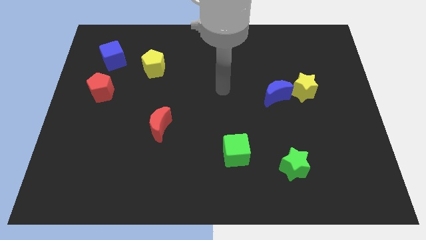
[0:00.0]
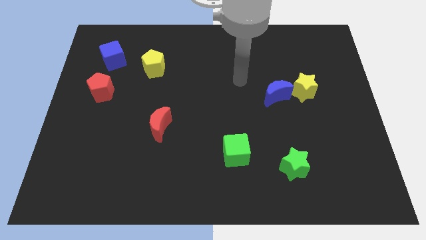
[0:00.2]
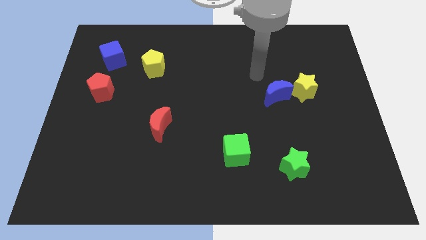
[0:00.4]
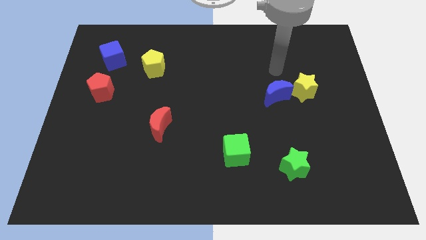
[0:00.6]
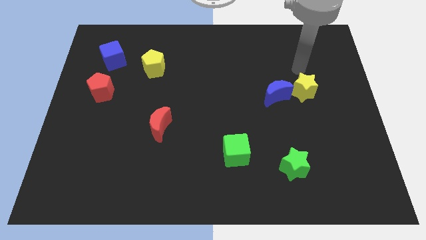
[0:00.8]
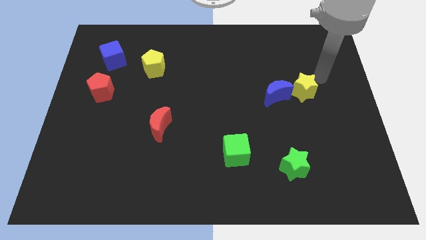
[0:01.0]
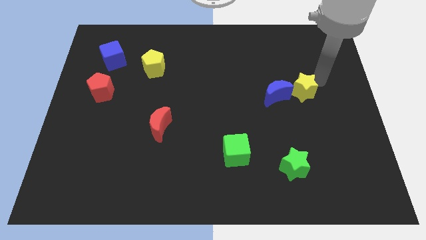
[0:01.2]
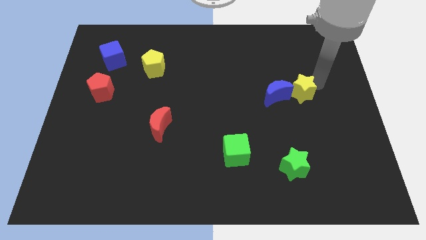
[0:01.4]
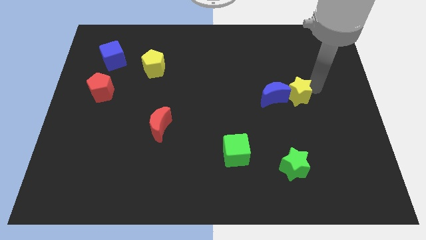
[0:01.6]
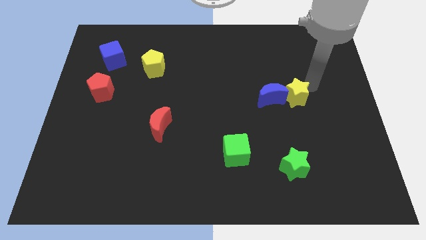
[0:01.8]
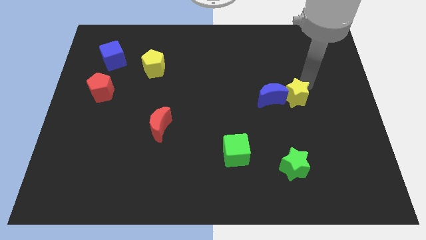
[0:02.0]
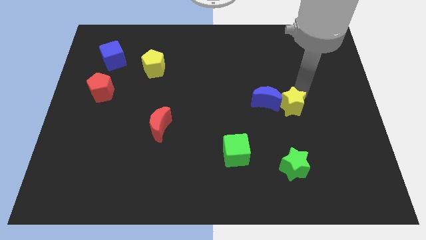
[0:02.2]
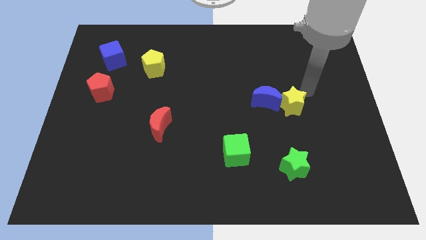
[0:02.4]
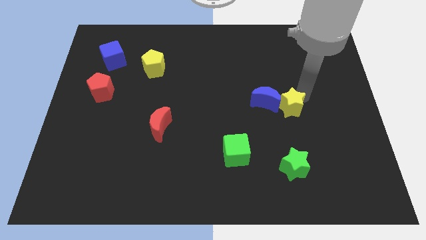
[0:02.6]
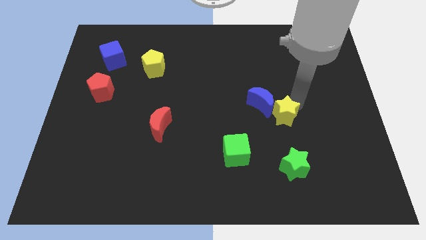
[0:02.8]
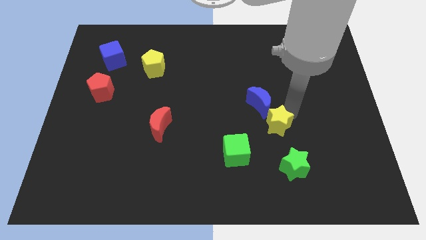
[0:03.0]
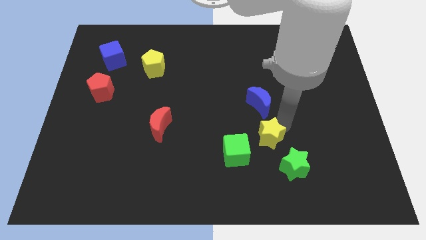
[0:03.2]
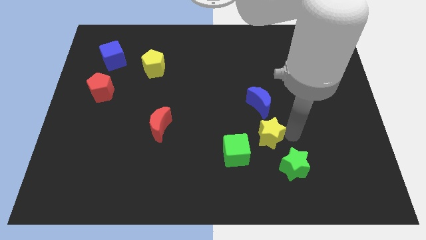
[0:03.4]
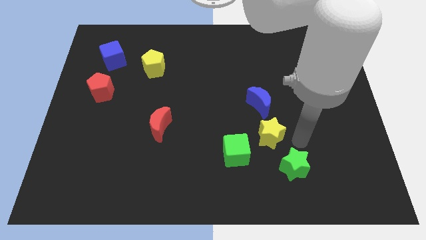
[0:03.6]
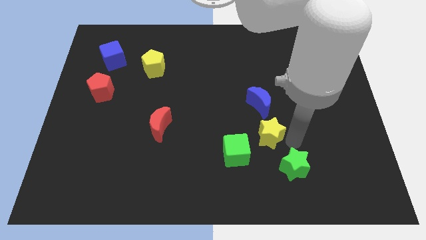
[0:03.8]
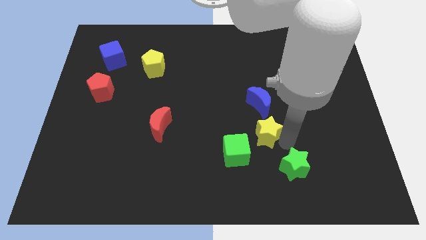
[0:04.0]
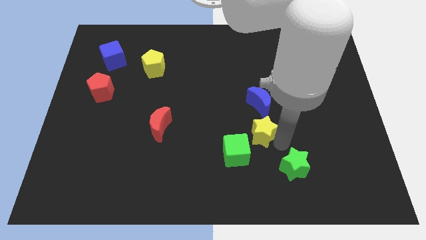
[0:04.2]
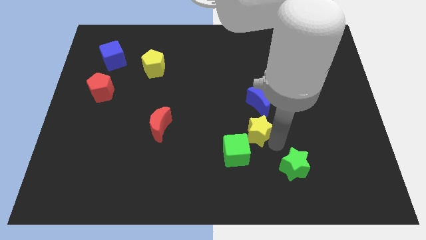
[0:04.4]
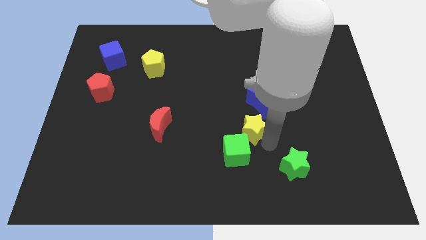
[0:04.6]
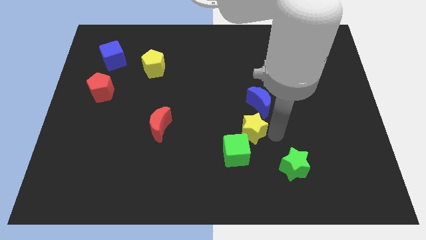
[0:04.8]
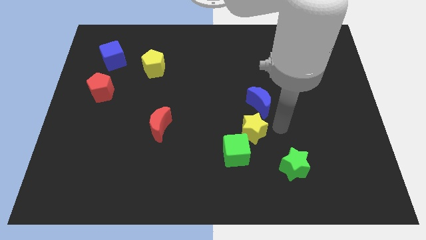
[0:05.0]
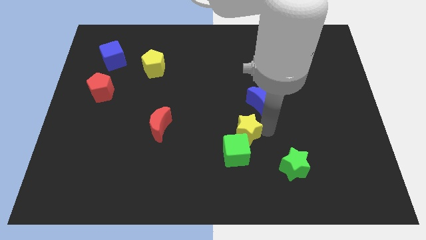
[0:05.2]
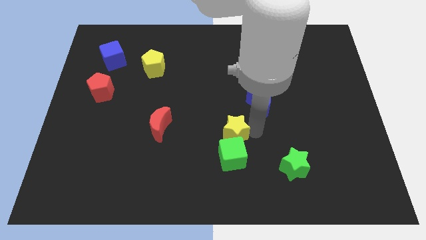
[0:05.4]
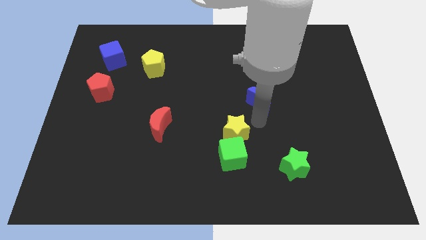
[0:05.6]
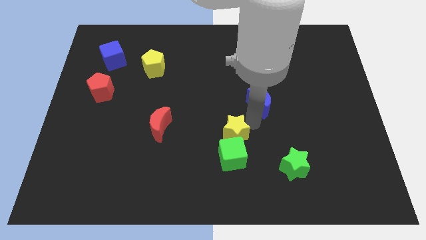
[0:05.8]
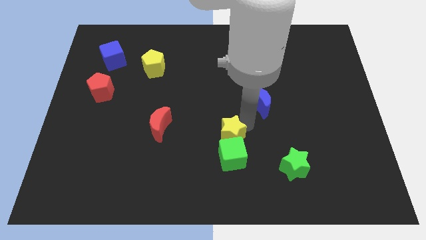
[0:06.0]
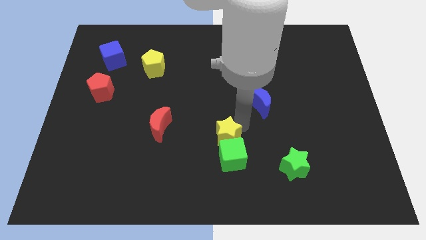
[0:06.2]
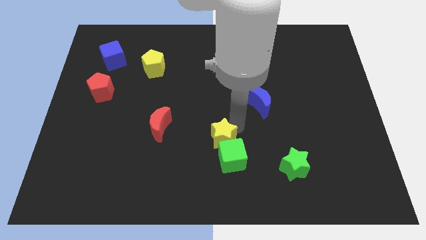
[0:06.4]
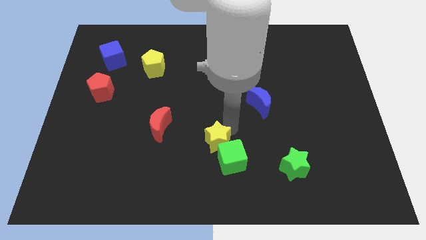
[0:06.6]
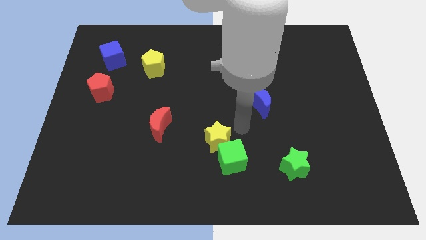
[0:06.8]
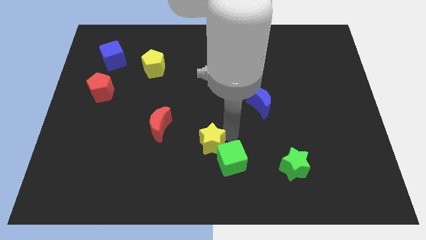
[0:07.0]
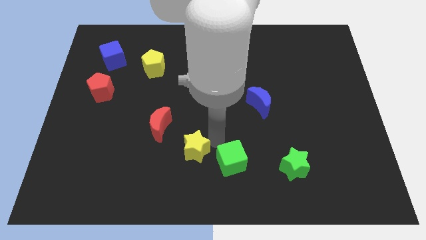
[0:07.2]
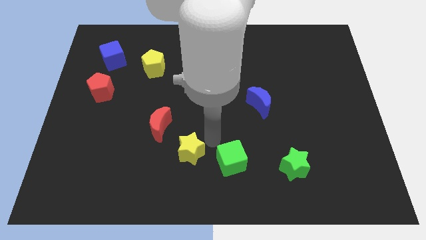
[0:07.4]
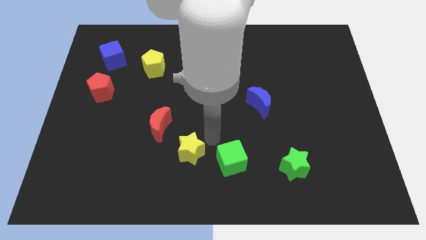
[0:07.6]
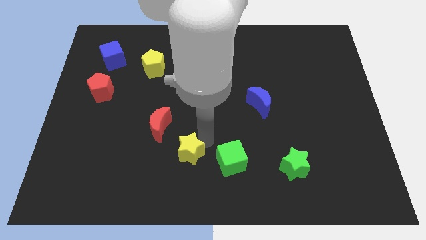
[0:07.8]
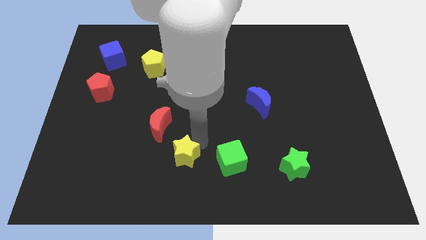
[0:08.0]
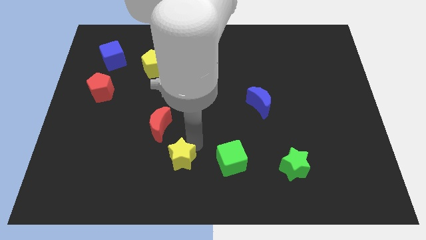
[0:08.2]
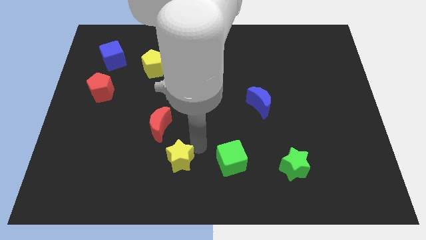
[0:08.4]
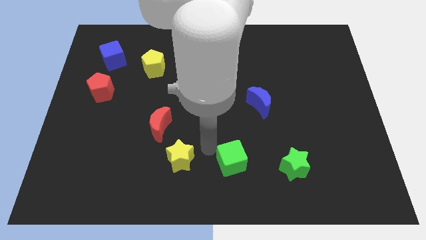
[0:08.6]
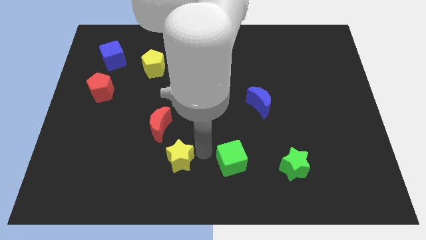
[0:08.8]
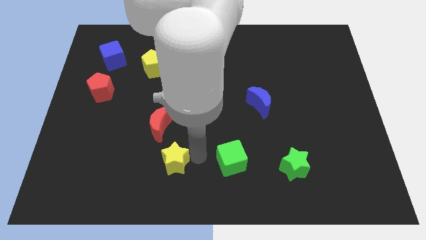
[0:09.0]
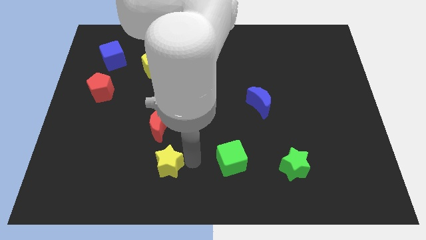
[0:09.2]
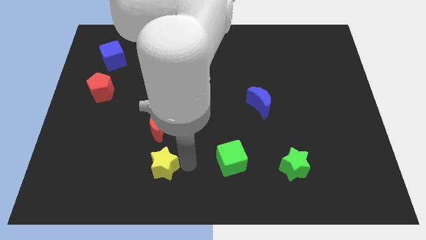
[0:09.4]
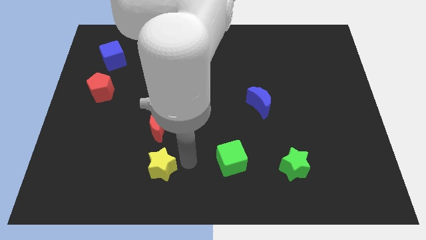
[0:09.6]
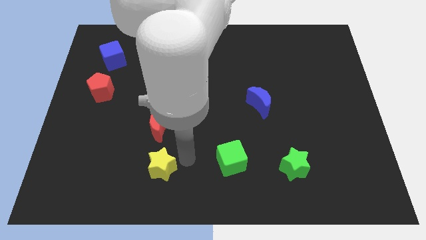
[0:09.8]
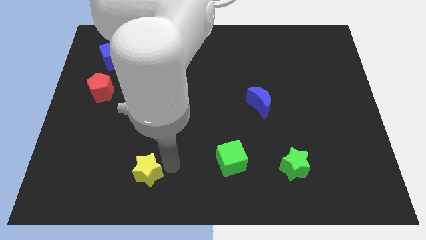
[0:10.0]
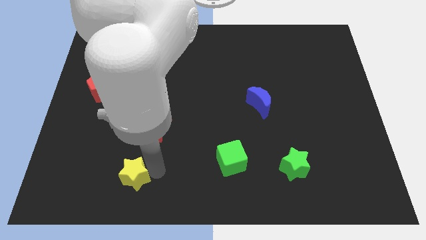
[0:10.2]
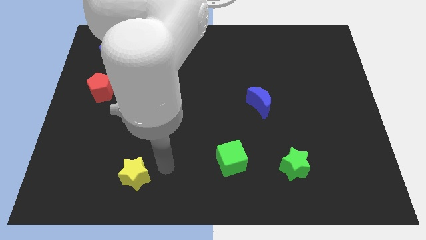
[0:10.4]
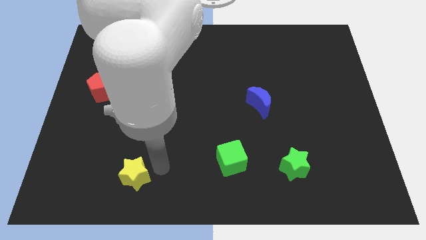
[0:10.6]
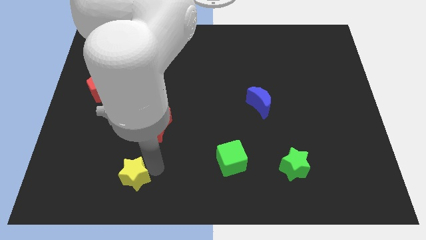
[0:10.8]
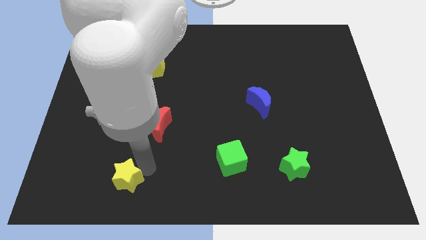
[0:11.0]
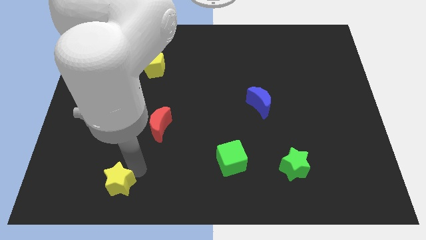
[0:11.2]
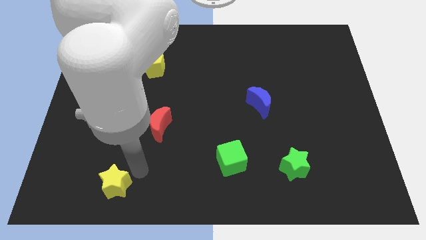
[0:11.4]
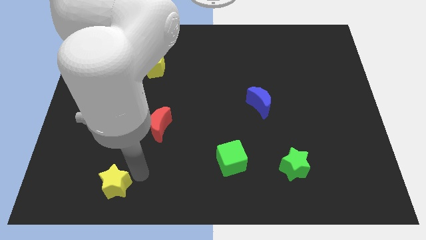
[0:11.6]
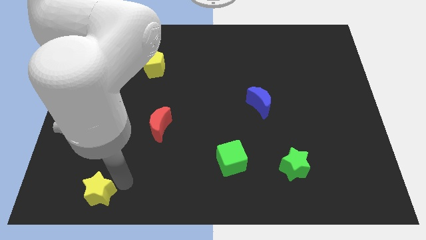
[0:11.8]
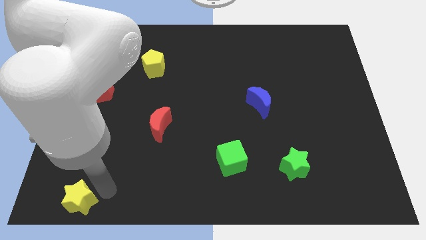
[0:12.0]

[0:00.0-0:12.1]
put the yellow star to the bottom left
